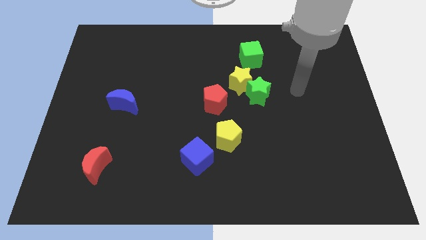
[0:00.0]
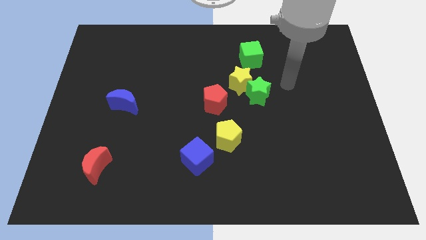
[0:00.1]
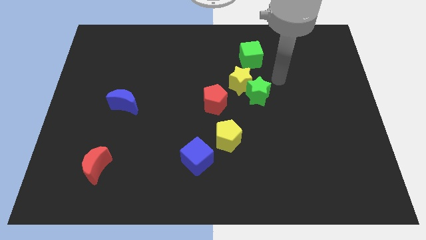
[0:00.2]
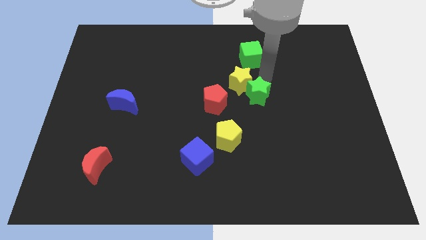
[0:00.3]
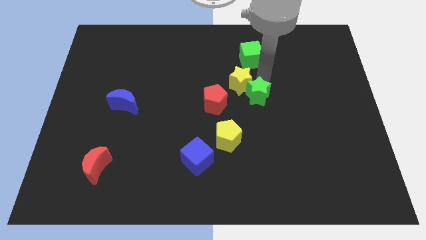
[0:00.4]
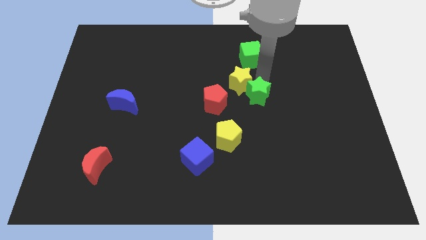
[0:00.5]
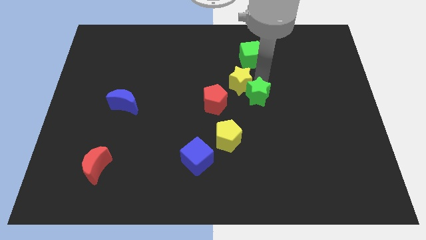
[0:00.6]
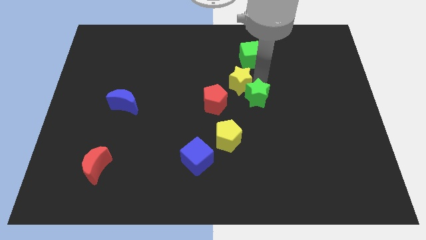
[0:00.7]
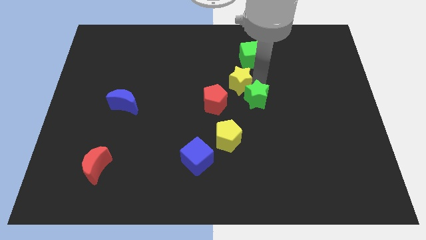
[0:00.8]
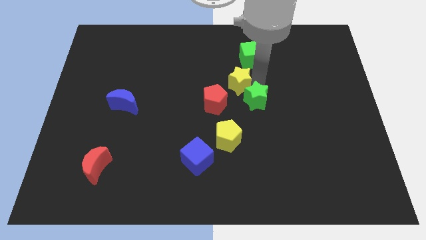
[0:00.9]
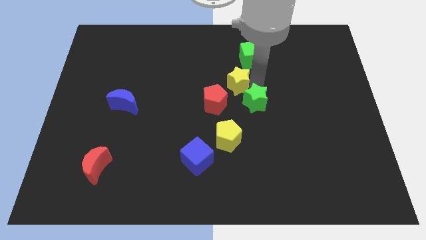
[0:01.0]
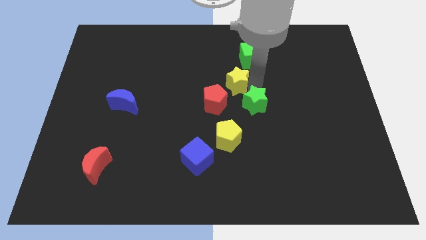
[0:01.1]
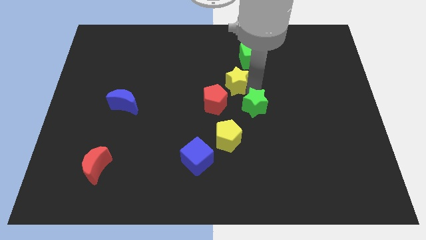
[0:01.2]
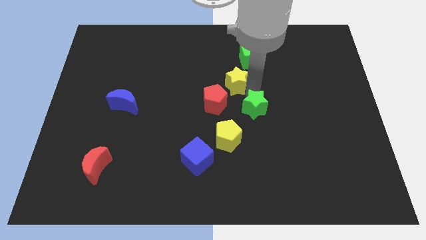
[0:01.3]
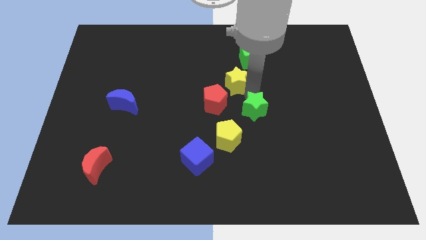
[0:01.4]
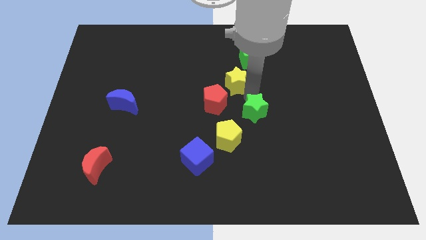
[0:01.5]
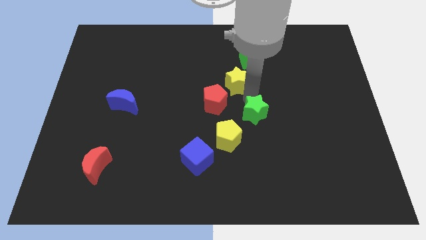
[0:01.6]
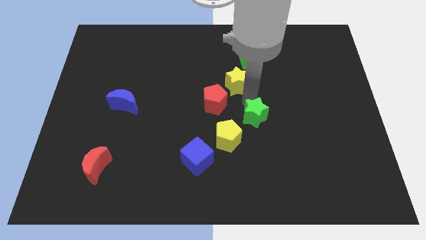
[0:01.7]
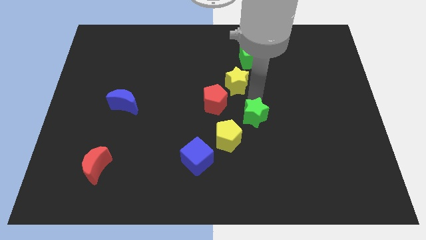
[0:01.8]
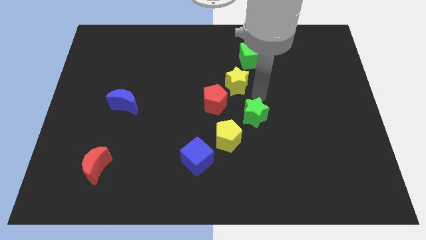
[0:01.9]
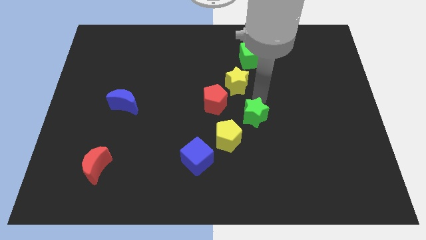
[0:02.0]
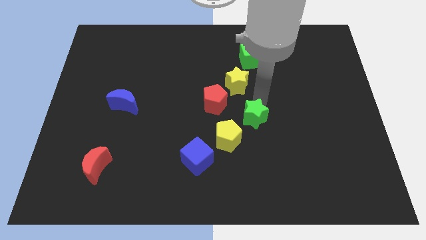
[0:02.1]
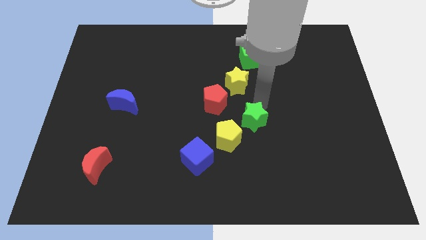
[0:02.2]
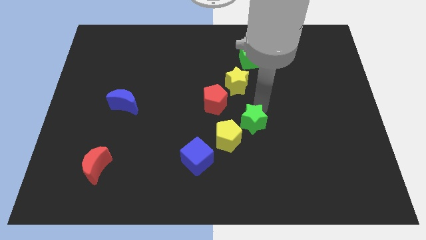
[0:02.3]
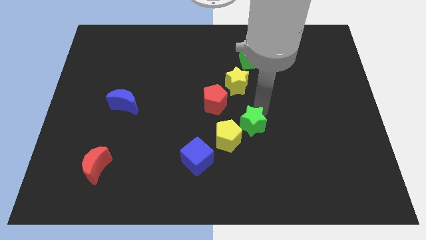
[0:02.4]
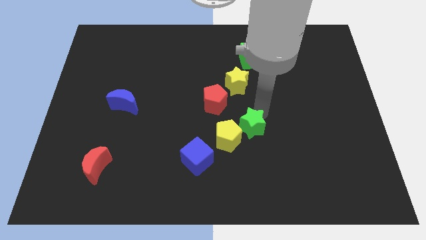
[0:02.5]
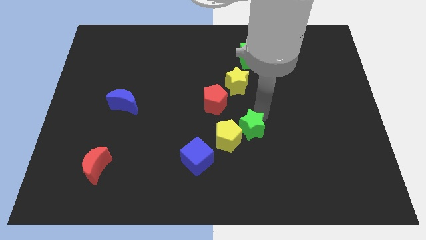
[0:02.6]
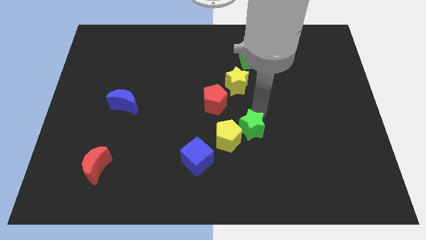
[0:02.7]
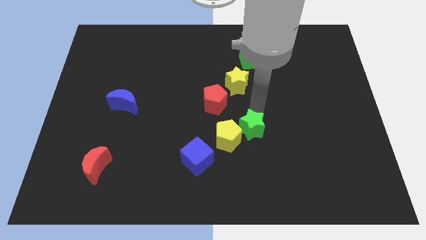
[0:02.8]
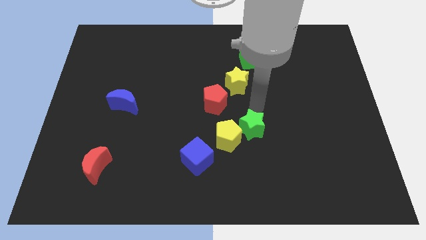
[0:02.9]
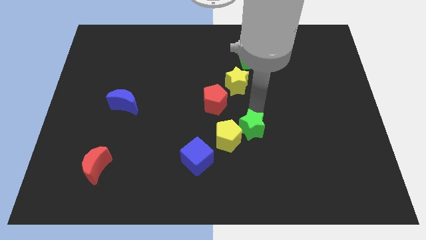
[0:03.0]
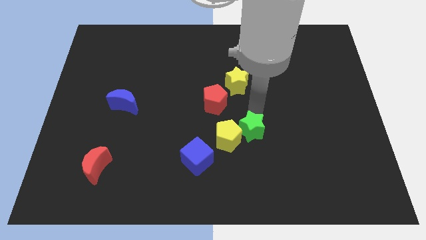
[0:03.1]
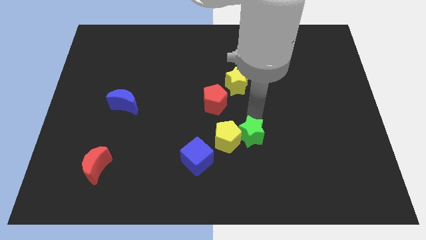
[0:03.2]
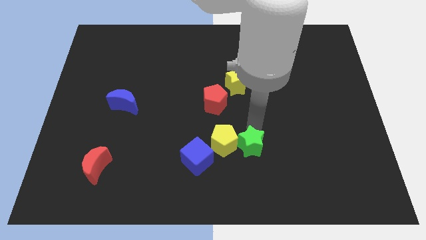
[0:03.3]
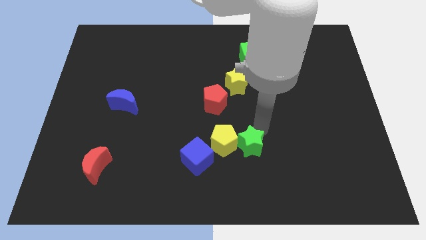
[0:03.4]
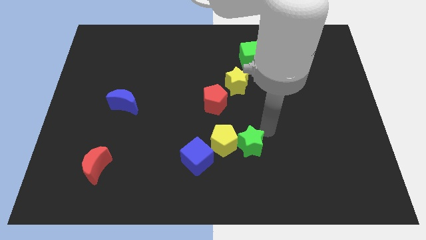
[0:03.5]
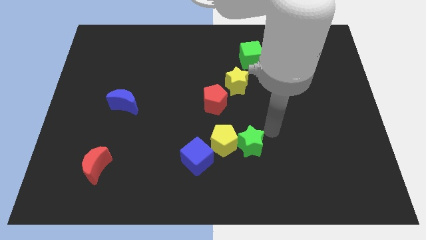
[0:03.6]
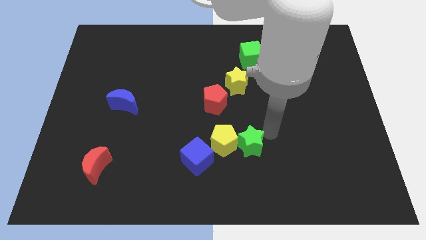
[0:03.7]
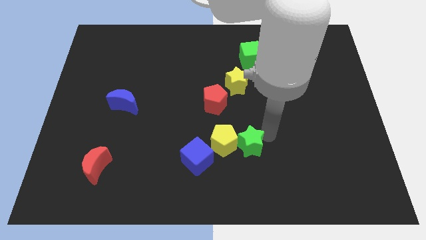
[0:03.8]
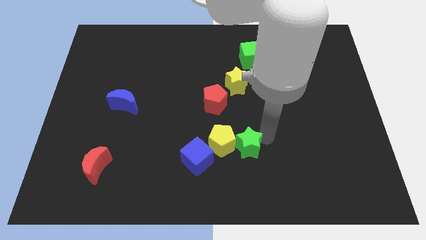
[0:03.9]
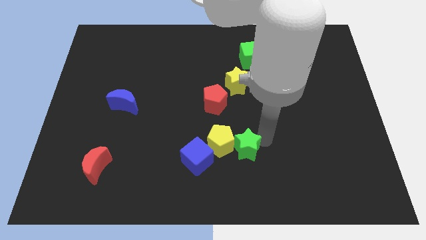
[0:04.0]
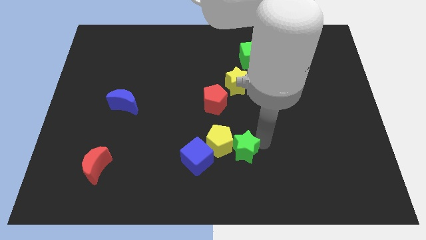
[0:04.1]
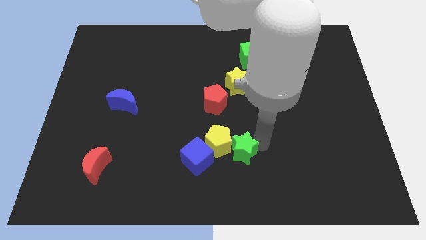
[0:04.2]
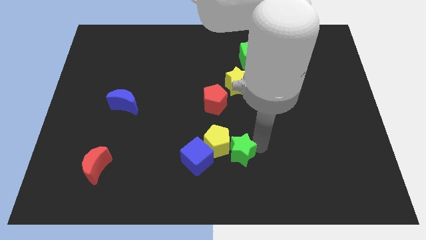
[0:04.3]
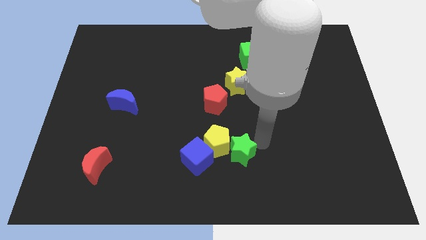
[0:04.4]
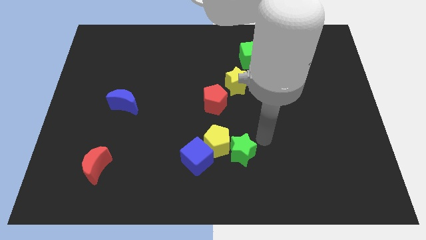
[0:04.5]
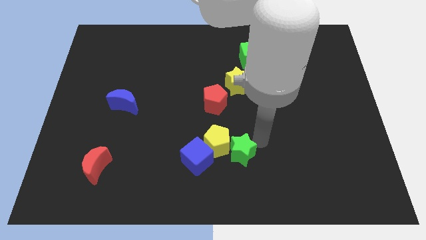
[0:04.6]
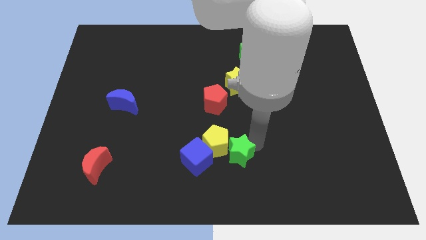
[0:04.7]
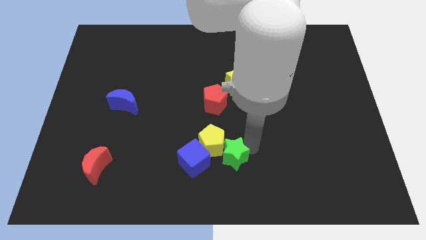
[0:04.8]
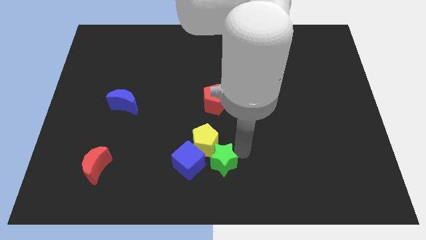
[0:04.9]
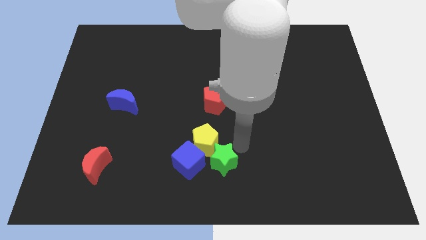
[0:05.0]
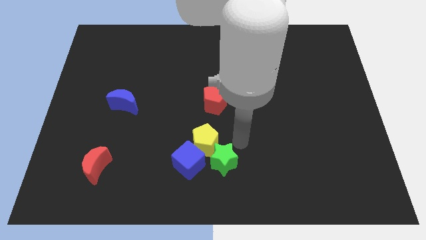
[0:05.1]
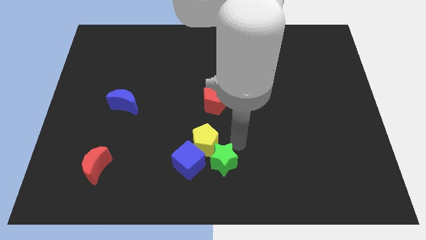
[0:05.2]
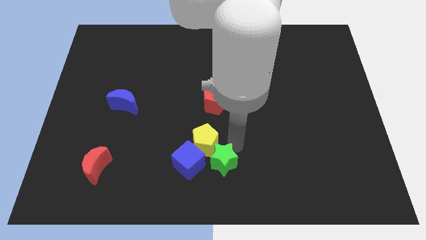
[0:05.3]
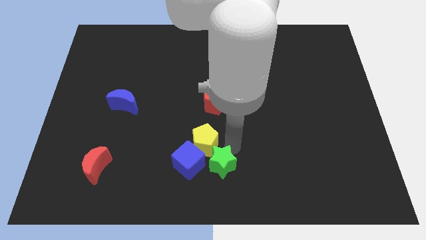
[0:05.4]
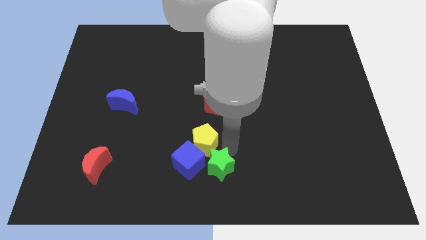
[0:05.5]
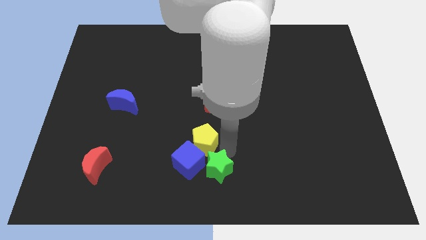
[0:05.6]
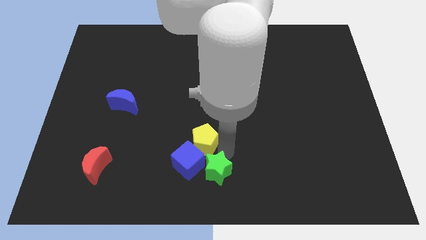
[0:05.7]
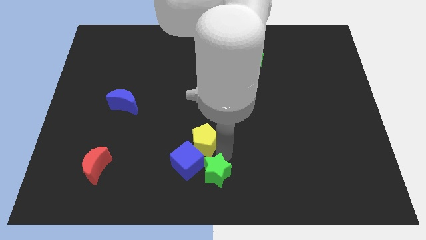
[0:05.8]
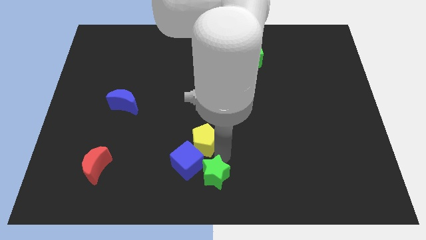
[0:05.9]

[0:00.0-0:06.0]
push the green star downwards and left

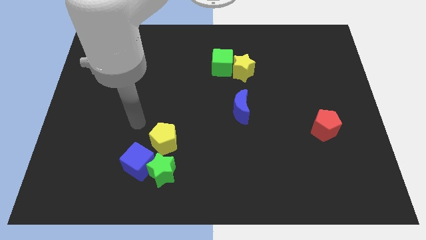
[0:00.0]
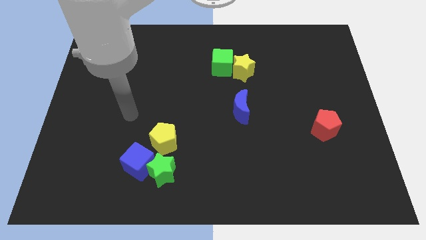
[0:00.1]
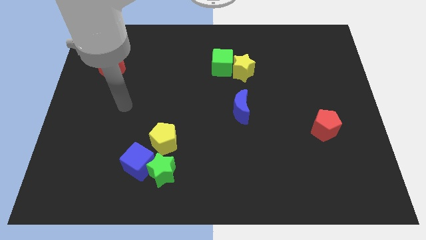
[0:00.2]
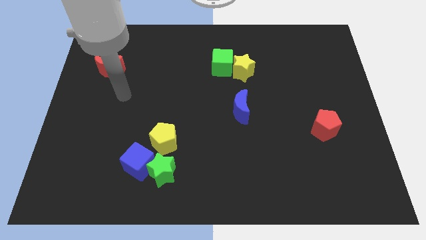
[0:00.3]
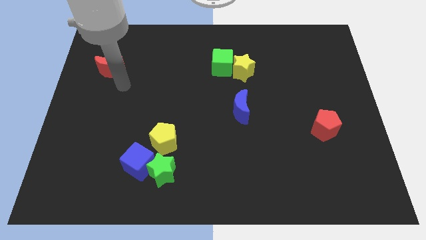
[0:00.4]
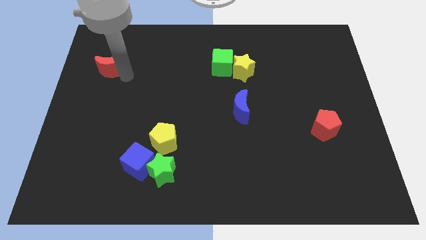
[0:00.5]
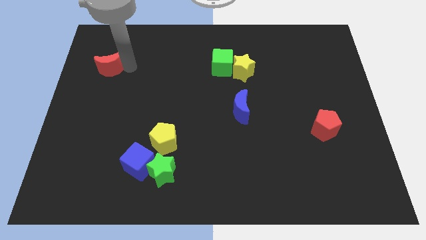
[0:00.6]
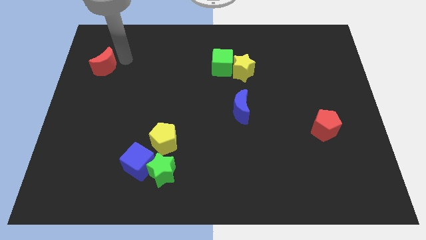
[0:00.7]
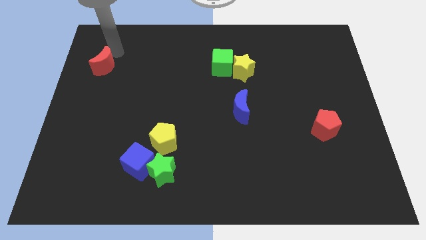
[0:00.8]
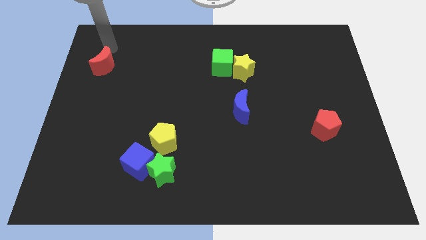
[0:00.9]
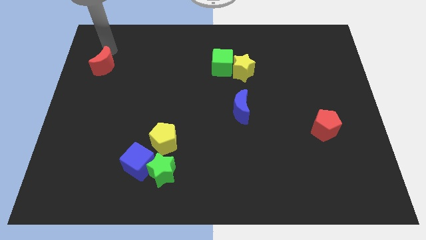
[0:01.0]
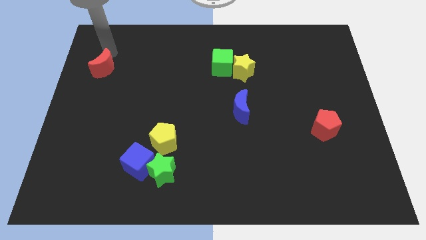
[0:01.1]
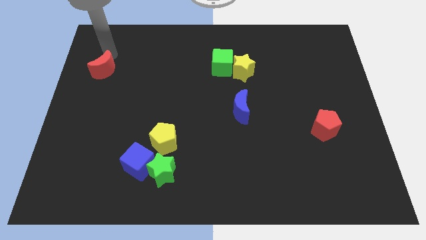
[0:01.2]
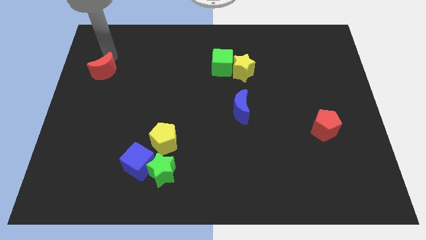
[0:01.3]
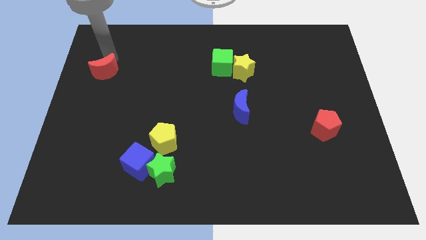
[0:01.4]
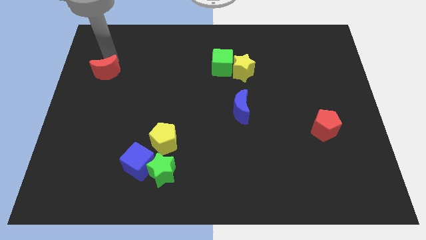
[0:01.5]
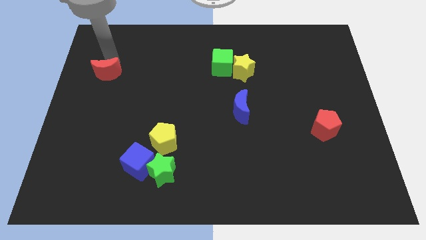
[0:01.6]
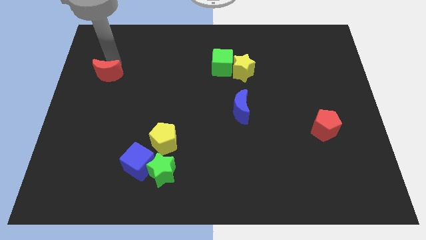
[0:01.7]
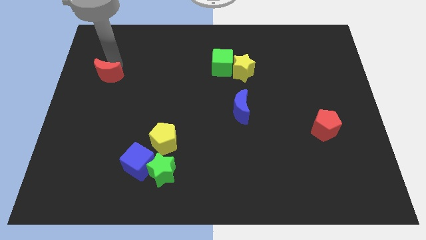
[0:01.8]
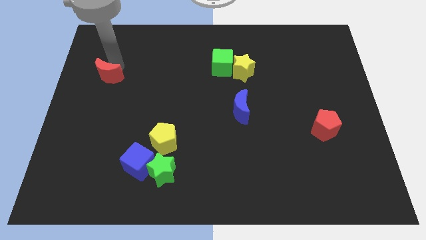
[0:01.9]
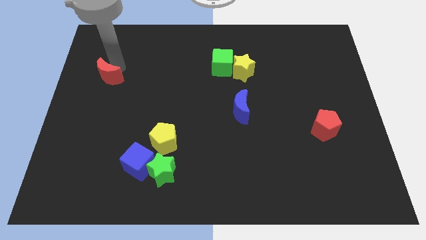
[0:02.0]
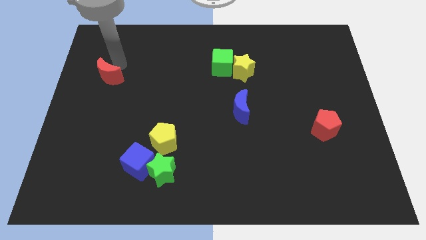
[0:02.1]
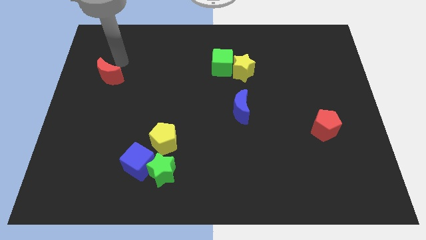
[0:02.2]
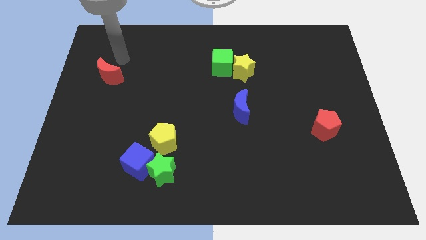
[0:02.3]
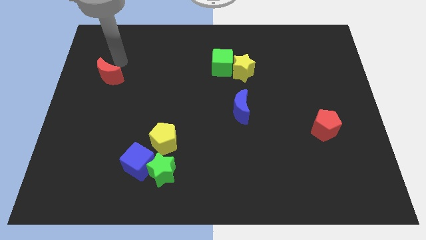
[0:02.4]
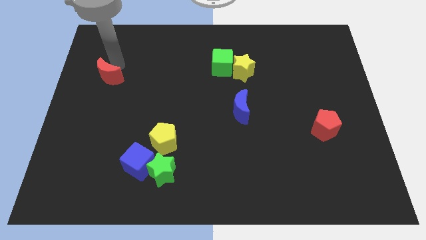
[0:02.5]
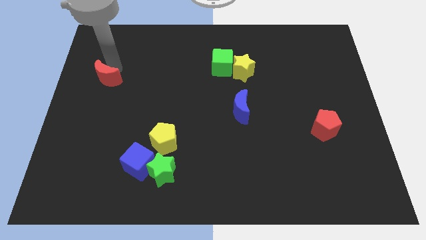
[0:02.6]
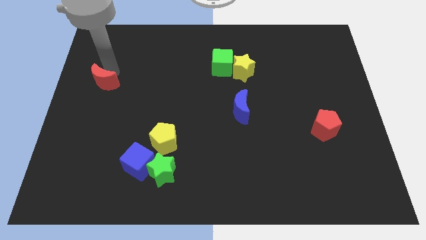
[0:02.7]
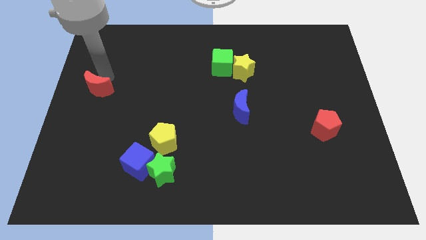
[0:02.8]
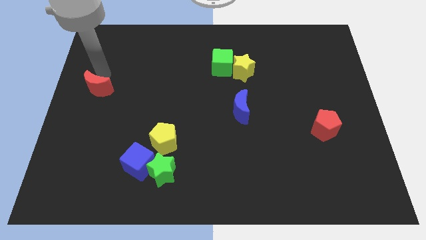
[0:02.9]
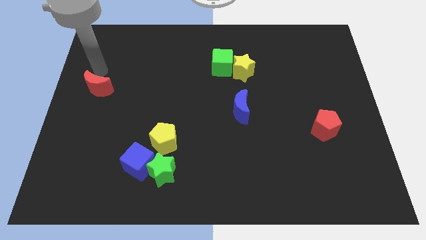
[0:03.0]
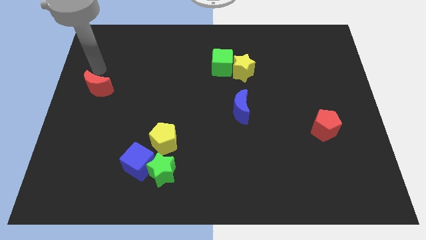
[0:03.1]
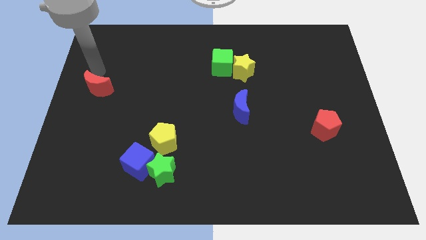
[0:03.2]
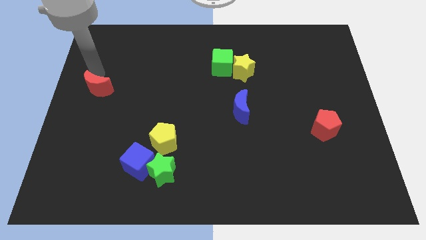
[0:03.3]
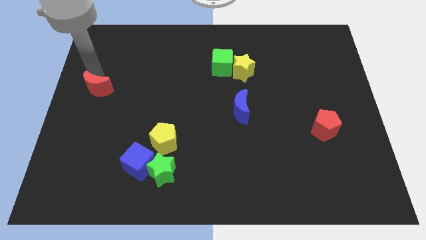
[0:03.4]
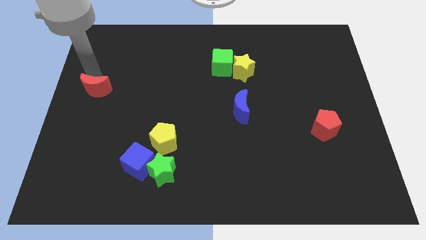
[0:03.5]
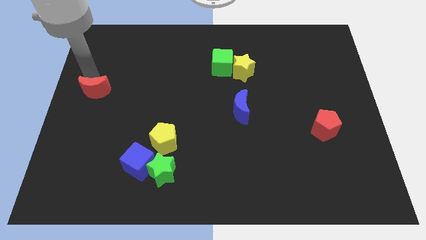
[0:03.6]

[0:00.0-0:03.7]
slide the red moon a little bit down
